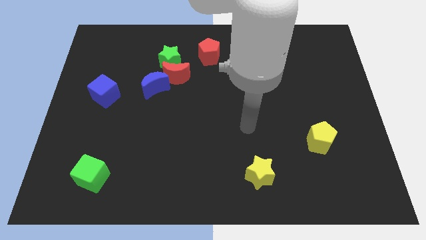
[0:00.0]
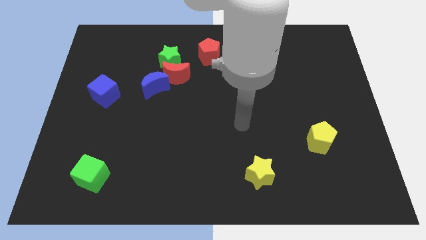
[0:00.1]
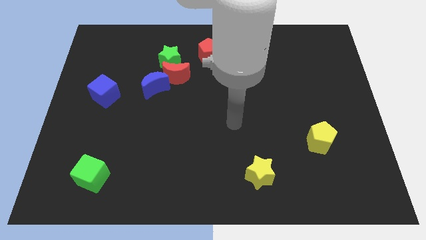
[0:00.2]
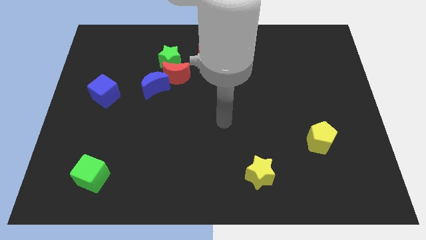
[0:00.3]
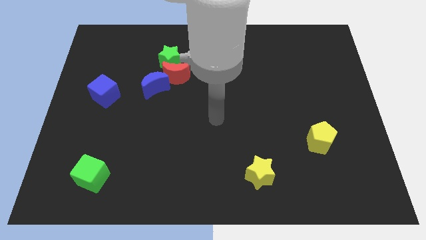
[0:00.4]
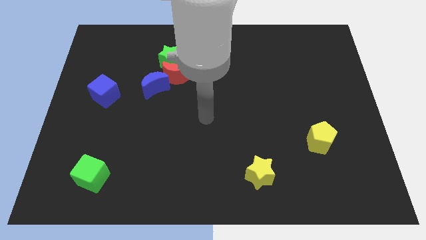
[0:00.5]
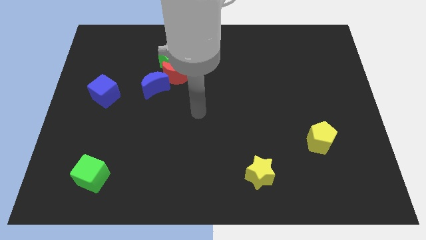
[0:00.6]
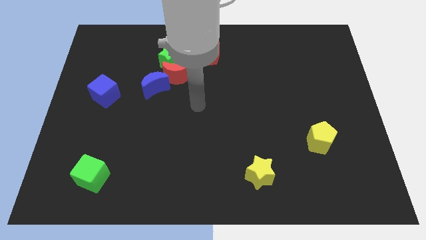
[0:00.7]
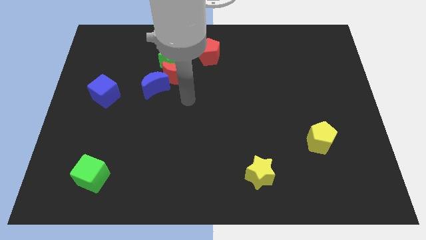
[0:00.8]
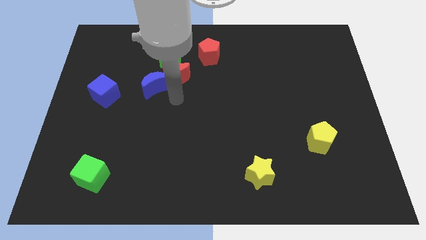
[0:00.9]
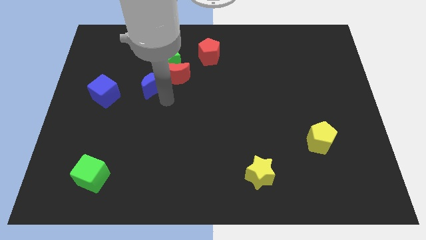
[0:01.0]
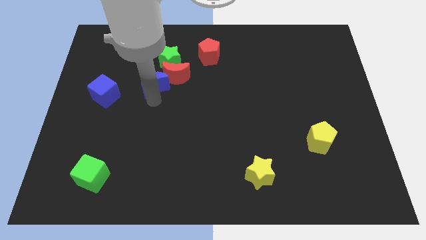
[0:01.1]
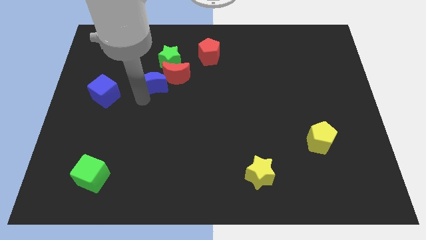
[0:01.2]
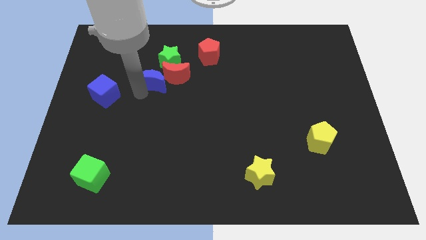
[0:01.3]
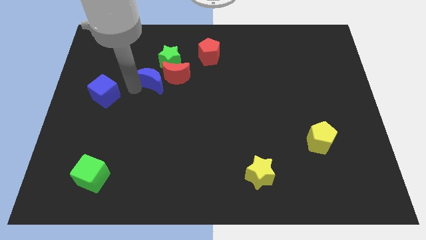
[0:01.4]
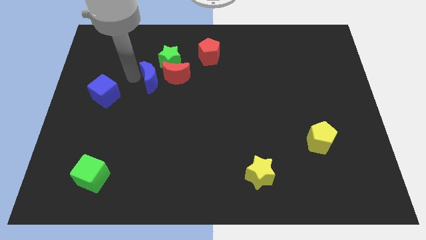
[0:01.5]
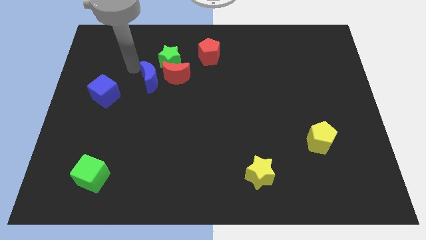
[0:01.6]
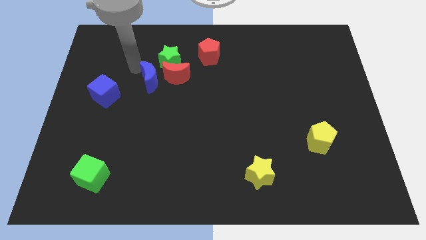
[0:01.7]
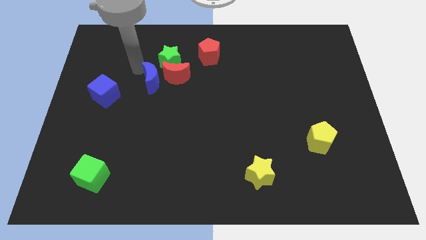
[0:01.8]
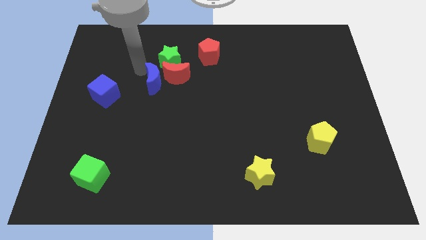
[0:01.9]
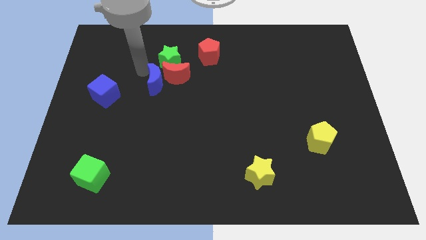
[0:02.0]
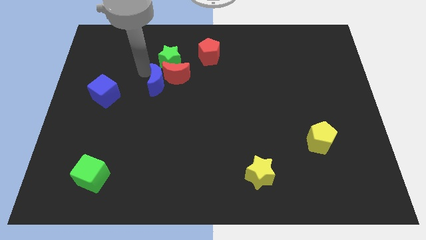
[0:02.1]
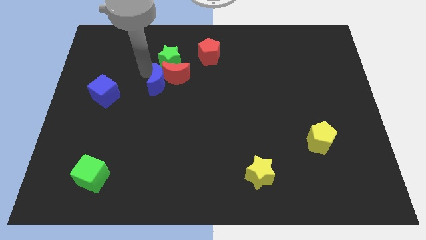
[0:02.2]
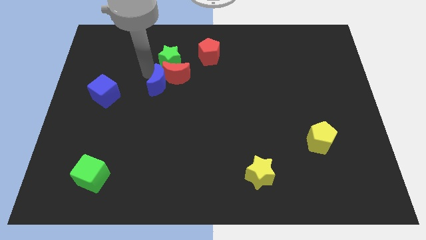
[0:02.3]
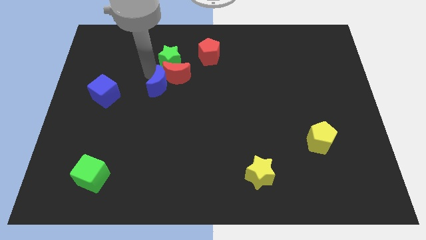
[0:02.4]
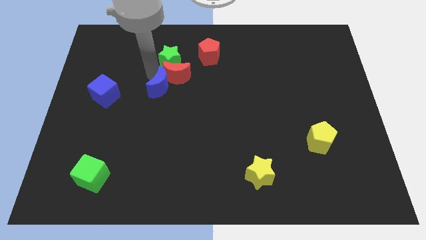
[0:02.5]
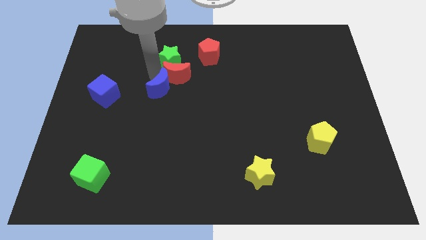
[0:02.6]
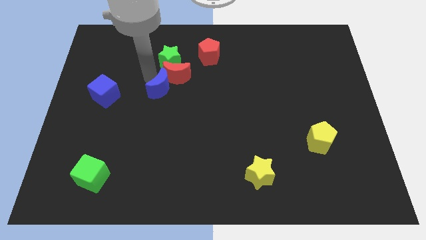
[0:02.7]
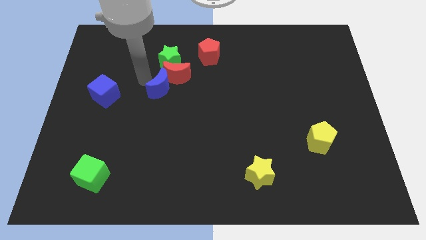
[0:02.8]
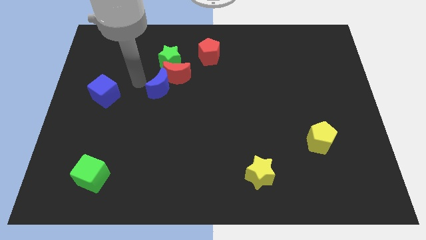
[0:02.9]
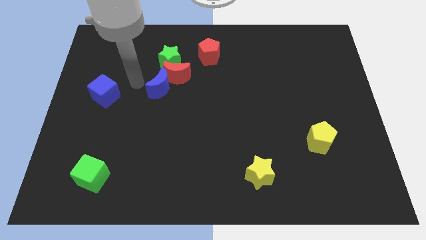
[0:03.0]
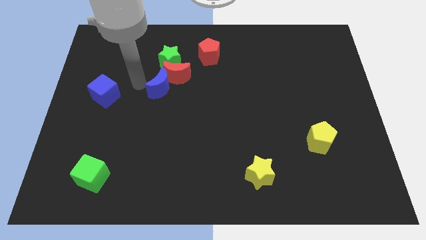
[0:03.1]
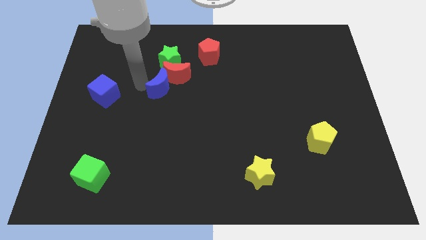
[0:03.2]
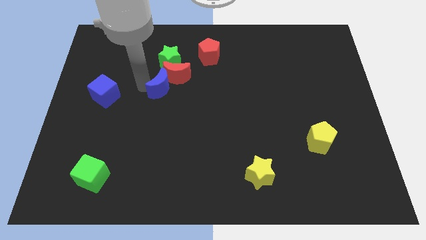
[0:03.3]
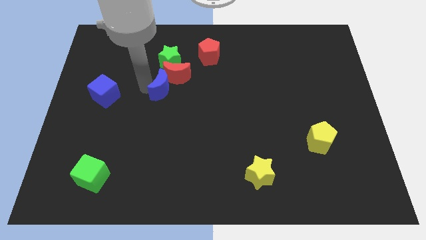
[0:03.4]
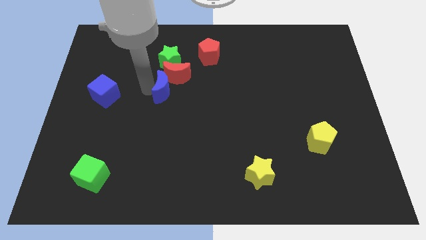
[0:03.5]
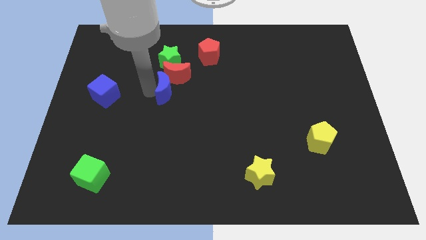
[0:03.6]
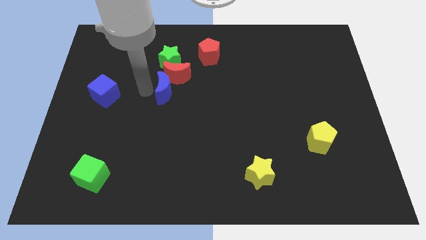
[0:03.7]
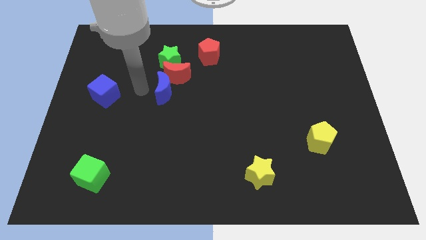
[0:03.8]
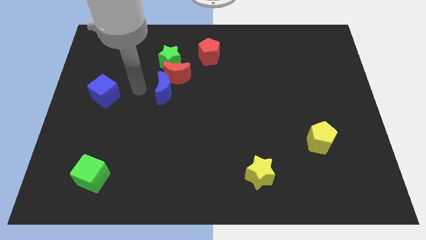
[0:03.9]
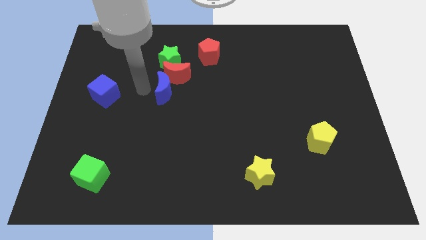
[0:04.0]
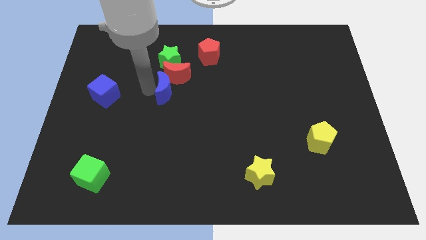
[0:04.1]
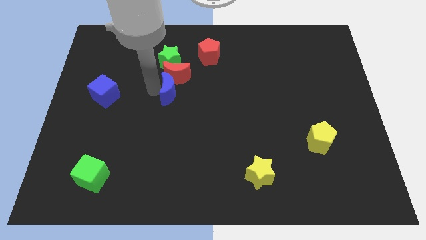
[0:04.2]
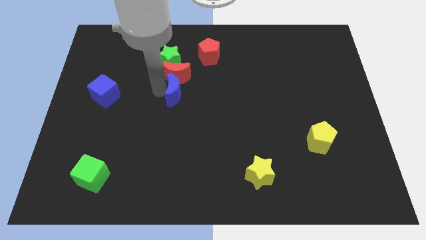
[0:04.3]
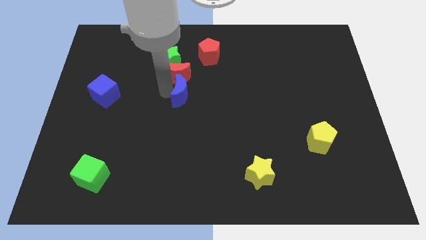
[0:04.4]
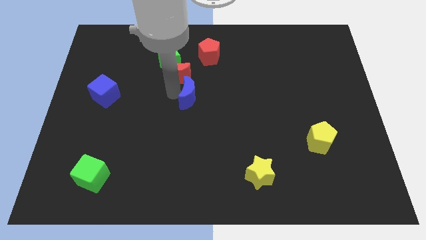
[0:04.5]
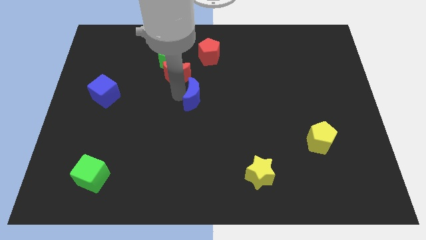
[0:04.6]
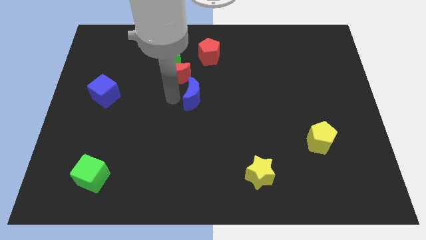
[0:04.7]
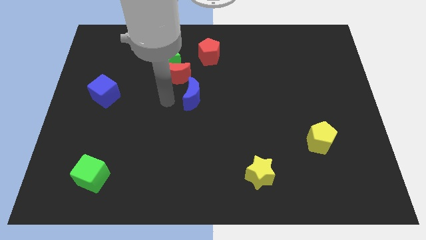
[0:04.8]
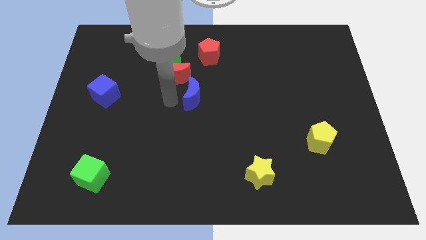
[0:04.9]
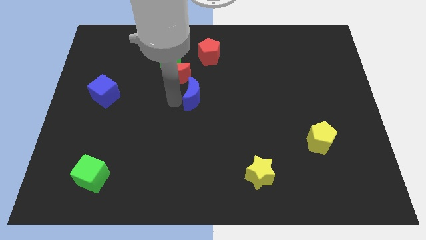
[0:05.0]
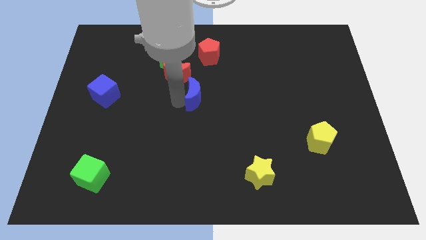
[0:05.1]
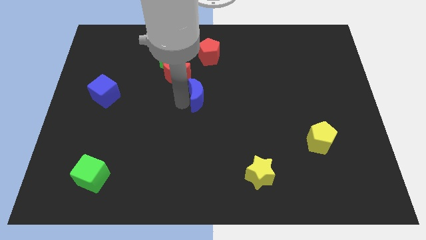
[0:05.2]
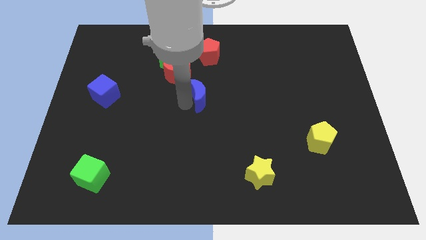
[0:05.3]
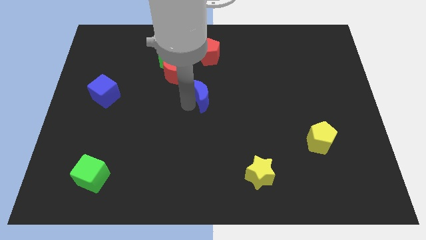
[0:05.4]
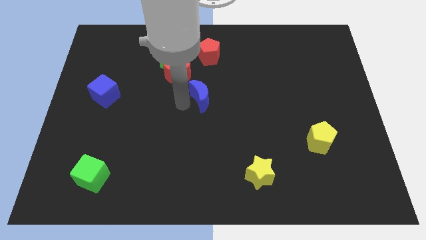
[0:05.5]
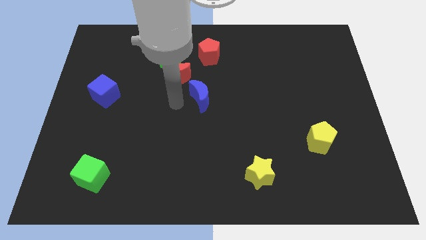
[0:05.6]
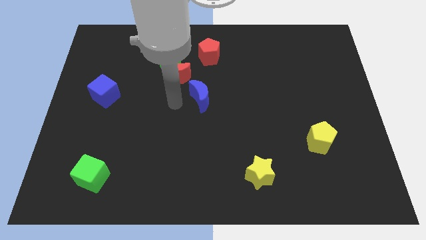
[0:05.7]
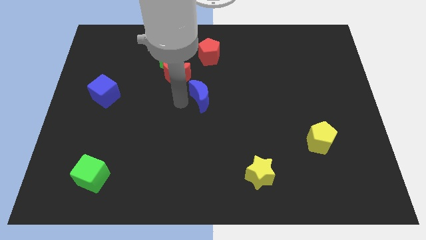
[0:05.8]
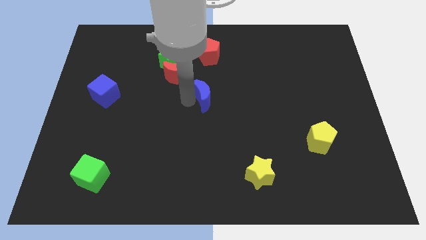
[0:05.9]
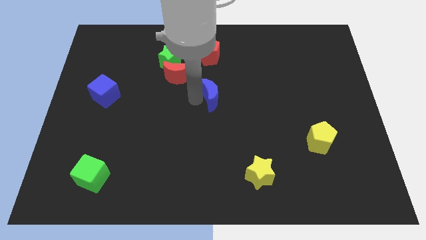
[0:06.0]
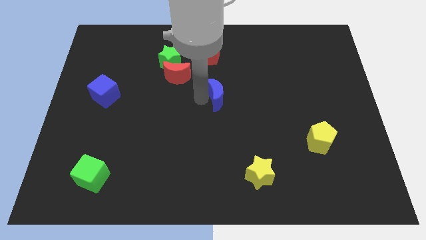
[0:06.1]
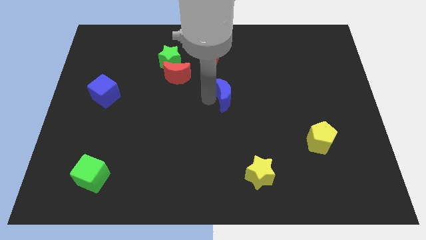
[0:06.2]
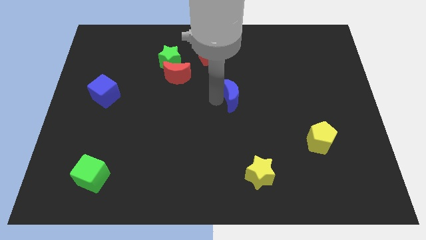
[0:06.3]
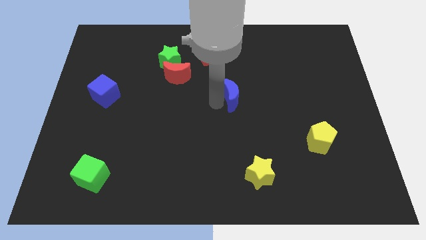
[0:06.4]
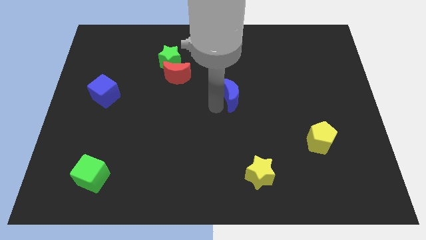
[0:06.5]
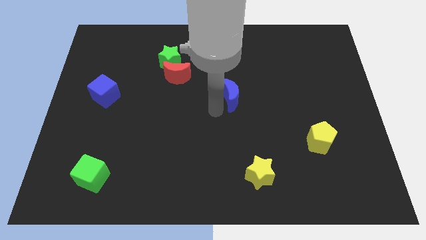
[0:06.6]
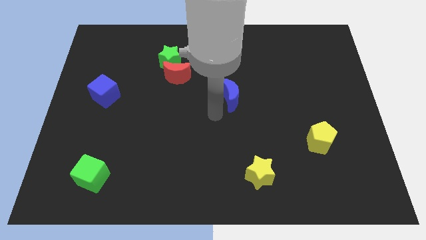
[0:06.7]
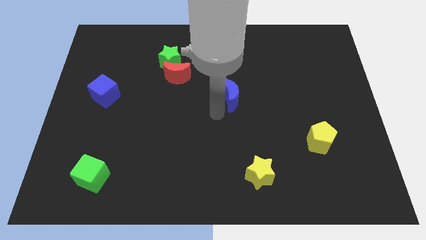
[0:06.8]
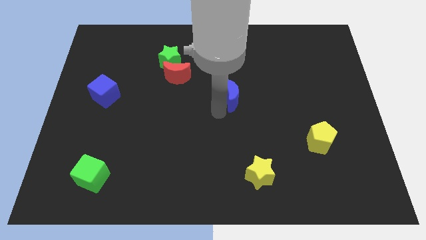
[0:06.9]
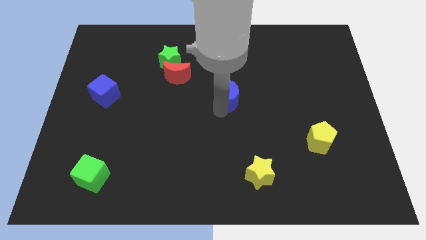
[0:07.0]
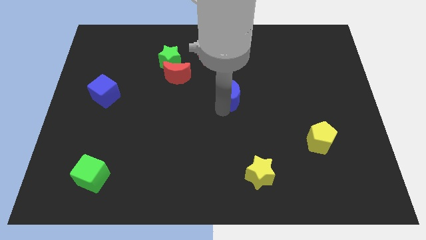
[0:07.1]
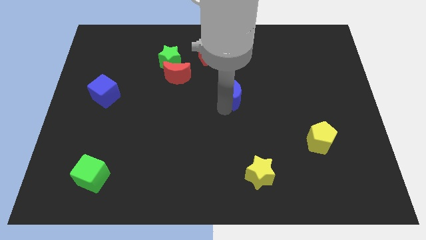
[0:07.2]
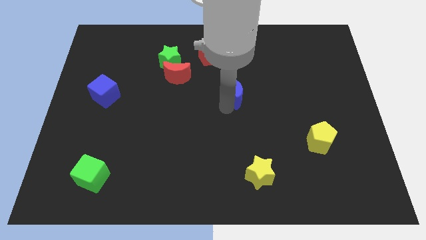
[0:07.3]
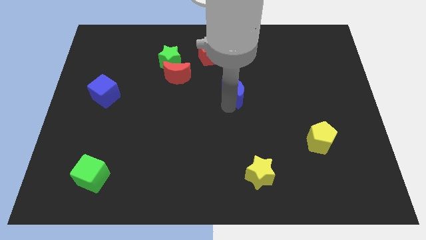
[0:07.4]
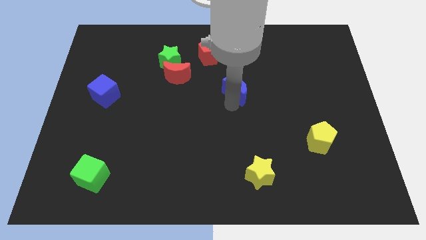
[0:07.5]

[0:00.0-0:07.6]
push the blue moon to the right

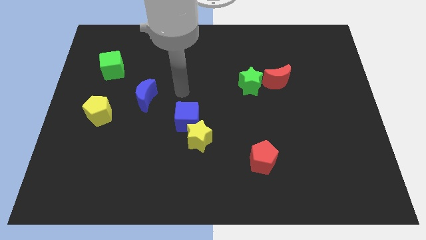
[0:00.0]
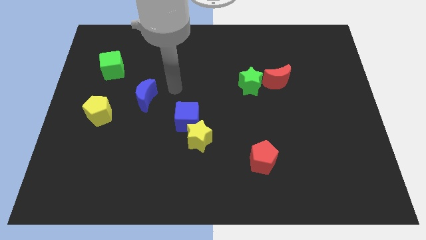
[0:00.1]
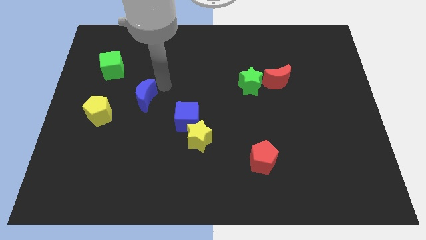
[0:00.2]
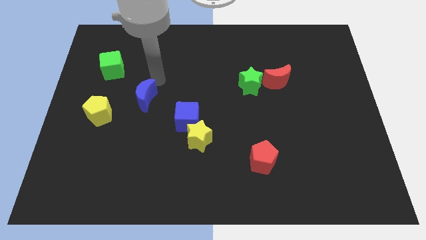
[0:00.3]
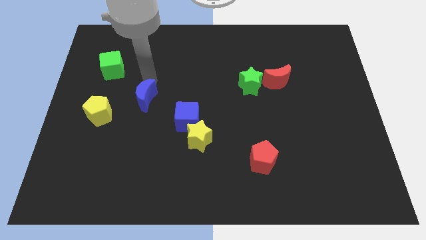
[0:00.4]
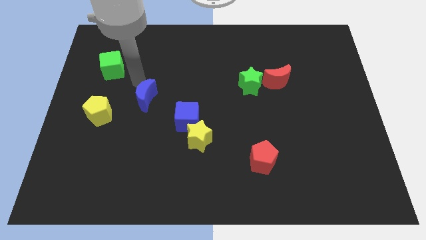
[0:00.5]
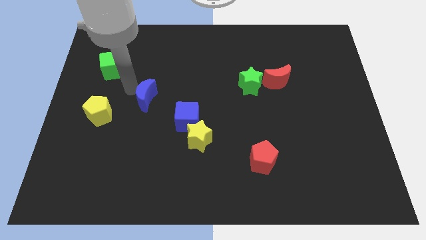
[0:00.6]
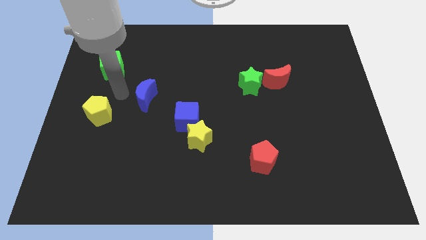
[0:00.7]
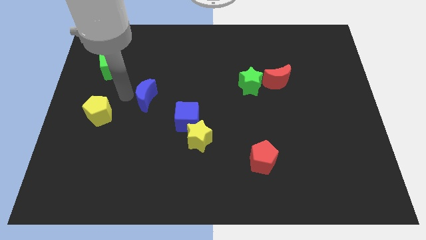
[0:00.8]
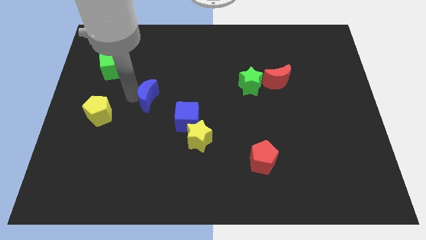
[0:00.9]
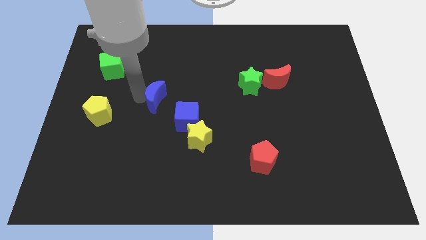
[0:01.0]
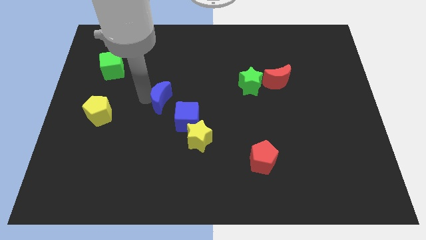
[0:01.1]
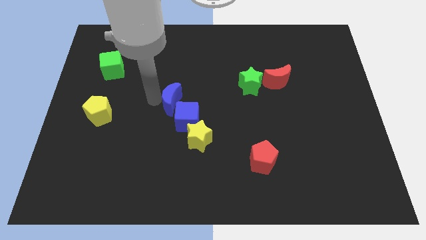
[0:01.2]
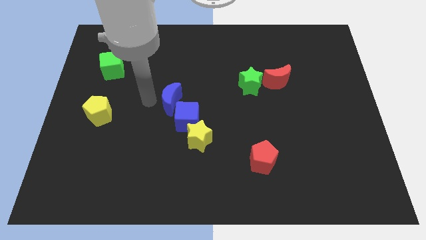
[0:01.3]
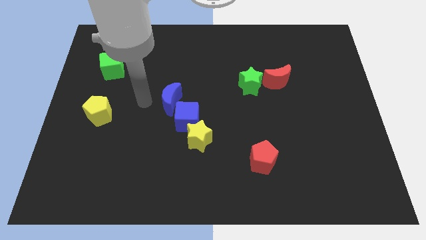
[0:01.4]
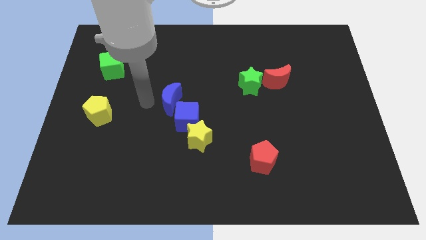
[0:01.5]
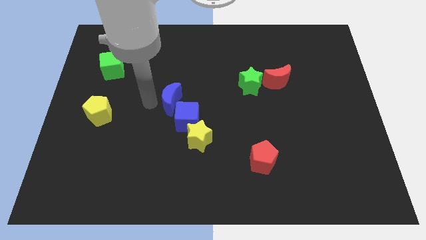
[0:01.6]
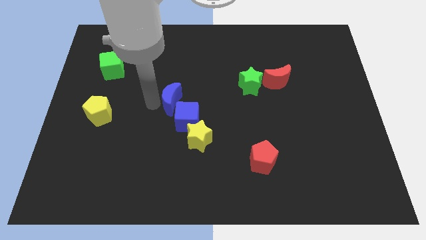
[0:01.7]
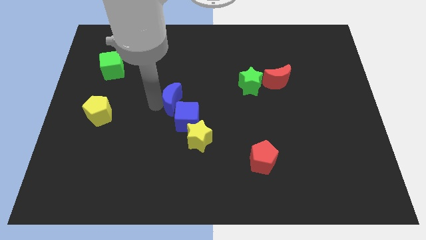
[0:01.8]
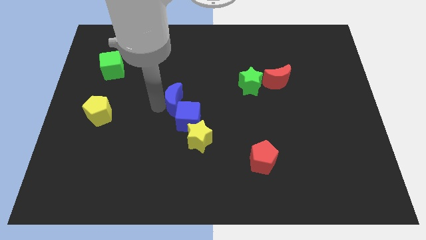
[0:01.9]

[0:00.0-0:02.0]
push the blue moon somewhat right
